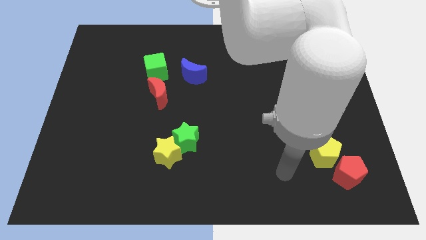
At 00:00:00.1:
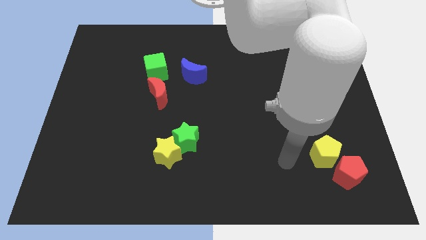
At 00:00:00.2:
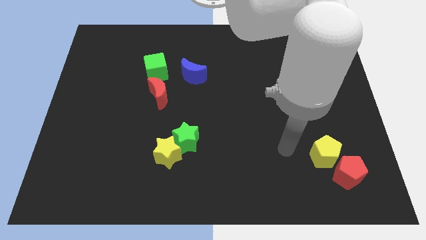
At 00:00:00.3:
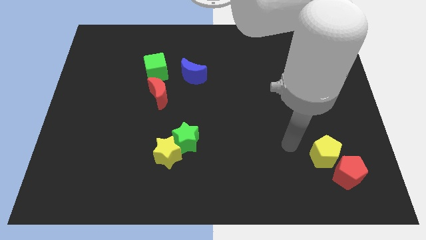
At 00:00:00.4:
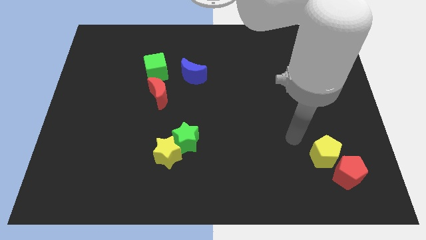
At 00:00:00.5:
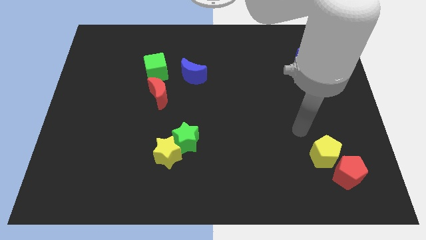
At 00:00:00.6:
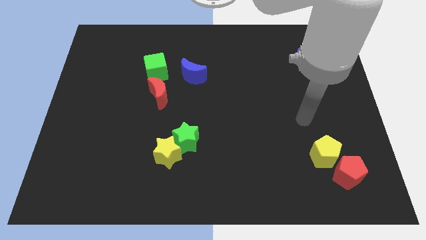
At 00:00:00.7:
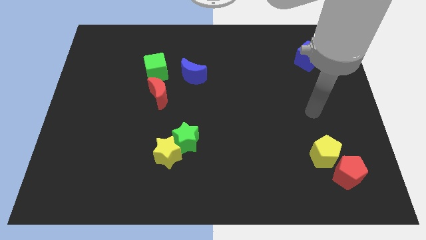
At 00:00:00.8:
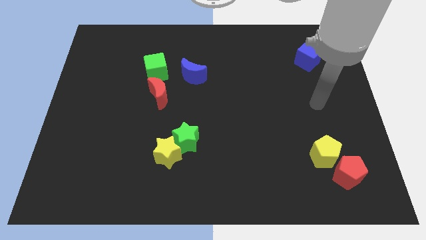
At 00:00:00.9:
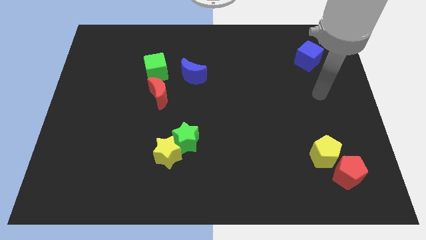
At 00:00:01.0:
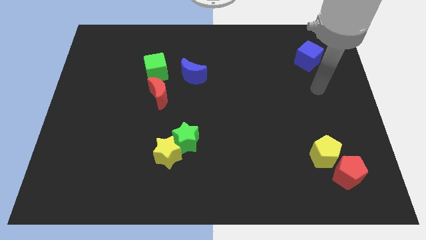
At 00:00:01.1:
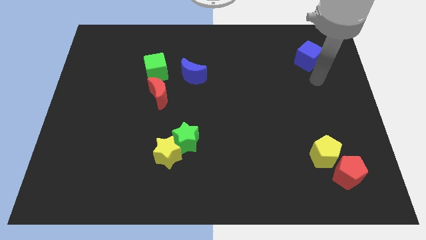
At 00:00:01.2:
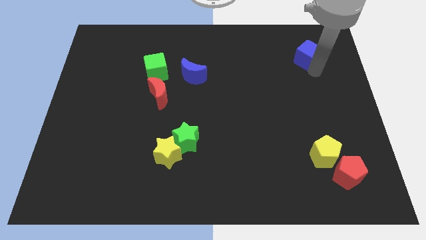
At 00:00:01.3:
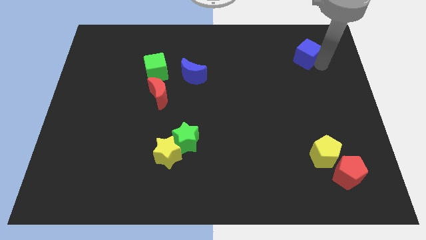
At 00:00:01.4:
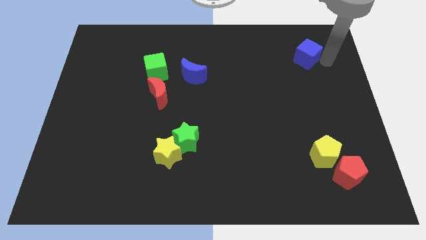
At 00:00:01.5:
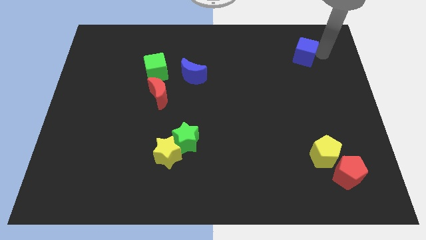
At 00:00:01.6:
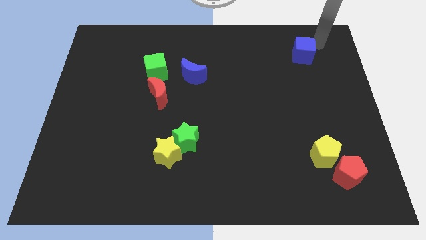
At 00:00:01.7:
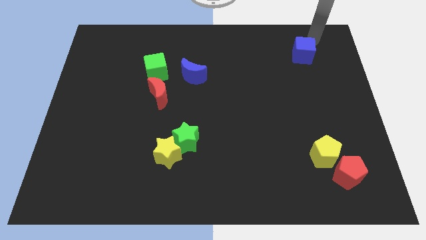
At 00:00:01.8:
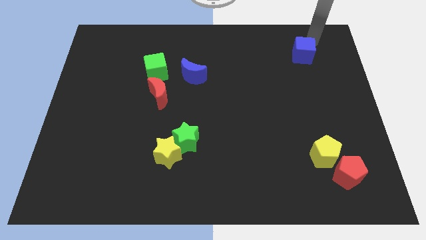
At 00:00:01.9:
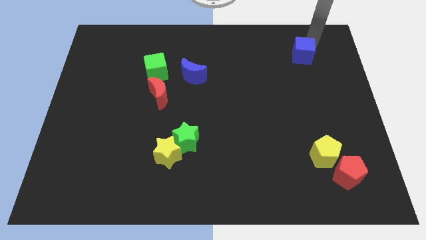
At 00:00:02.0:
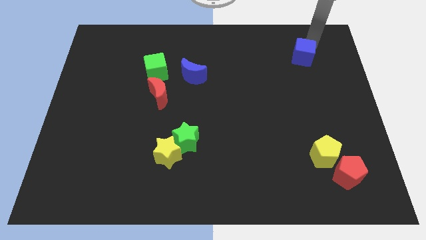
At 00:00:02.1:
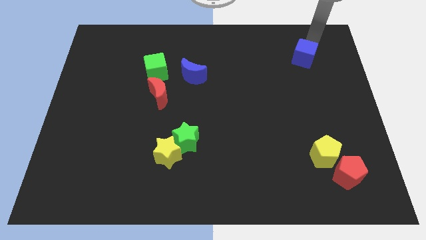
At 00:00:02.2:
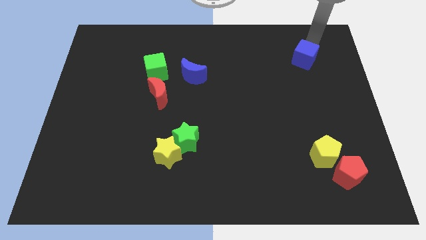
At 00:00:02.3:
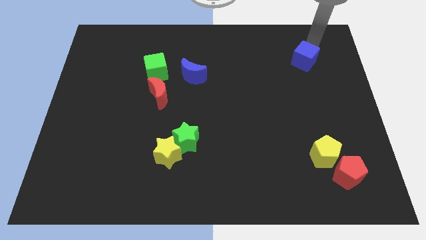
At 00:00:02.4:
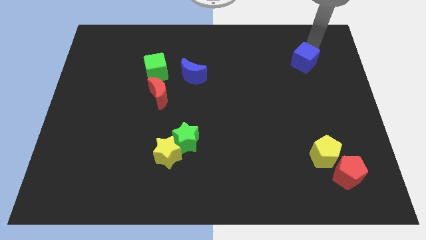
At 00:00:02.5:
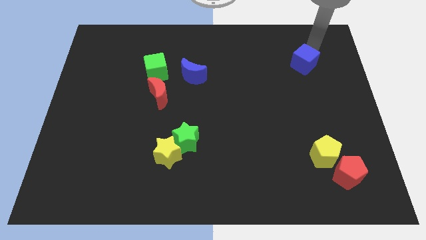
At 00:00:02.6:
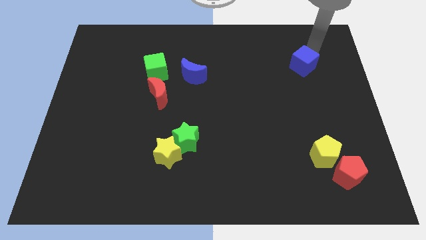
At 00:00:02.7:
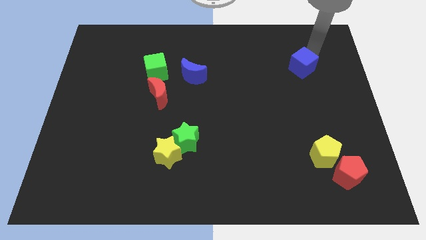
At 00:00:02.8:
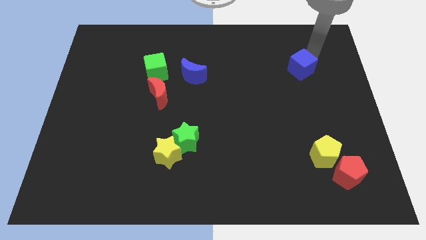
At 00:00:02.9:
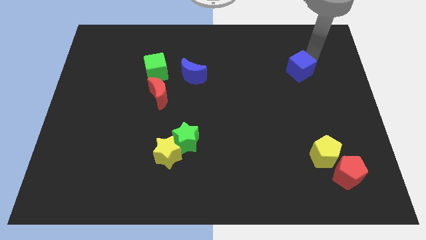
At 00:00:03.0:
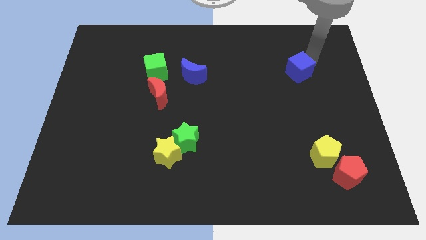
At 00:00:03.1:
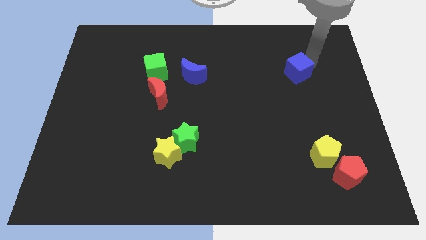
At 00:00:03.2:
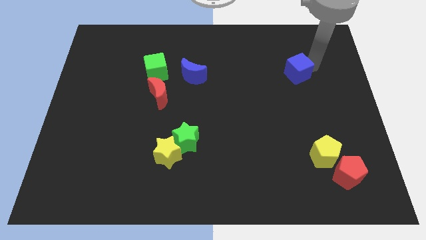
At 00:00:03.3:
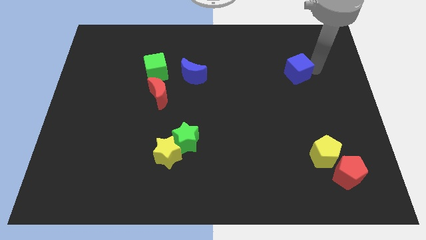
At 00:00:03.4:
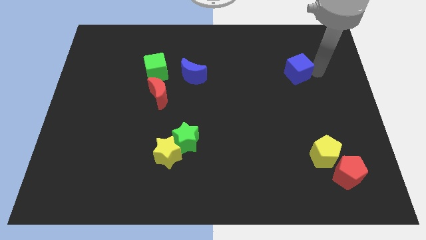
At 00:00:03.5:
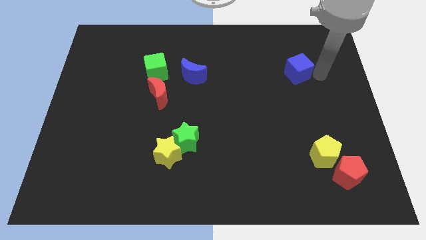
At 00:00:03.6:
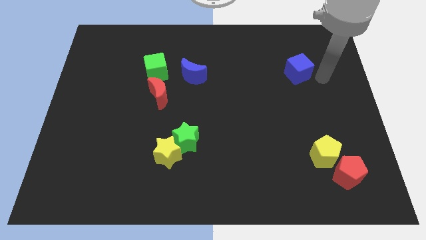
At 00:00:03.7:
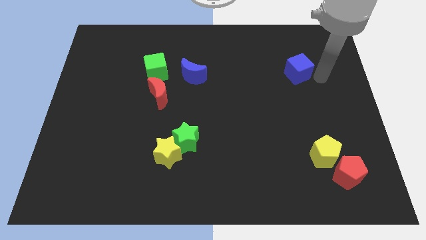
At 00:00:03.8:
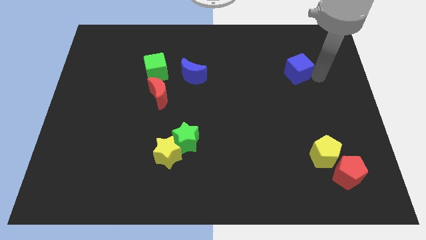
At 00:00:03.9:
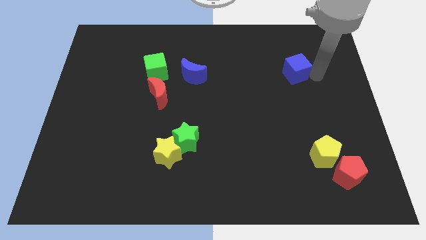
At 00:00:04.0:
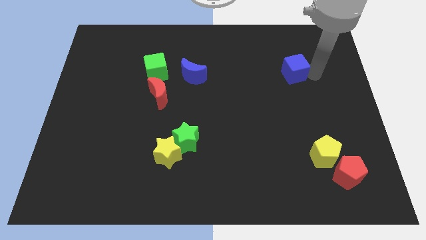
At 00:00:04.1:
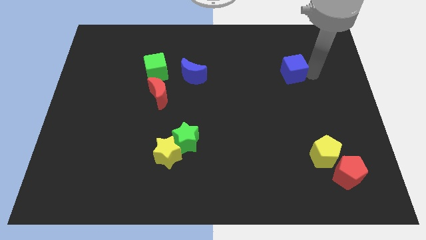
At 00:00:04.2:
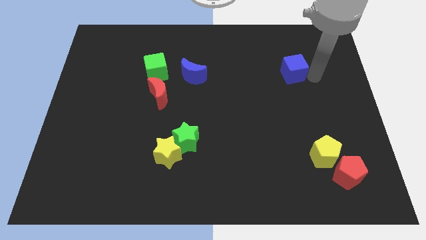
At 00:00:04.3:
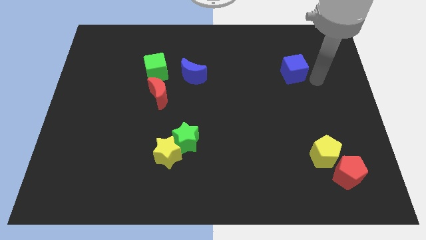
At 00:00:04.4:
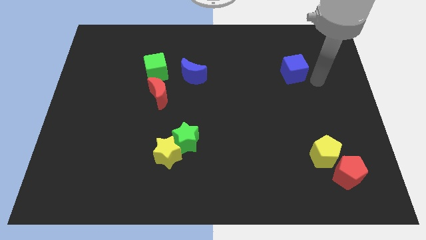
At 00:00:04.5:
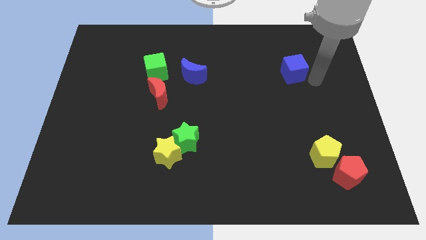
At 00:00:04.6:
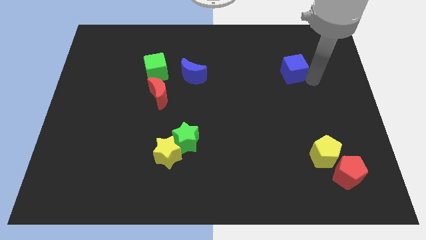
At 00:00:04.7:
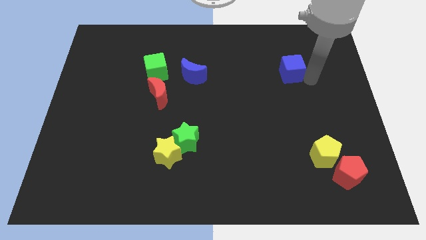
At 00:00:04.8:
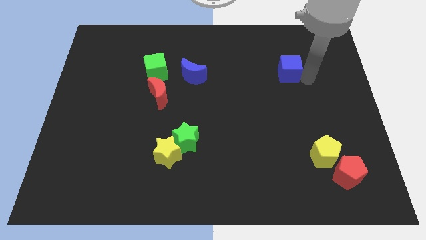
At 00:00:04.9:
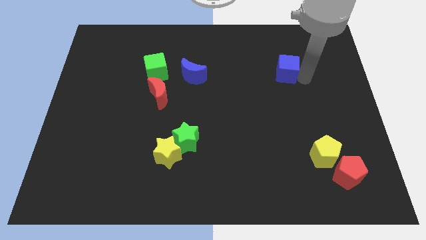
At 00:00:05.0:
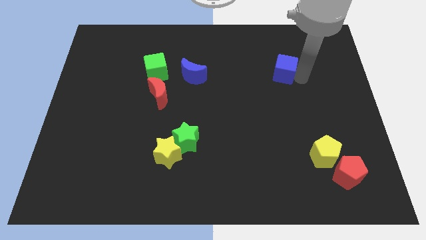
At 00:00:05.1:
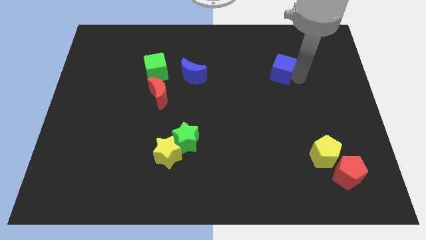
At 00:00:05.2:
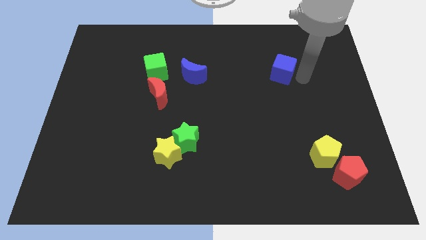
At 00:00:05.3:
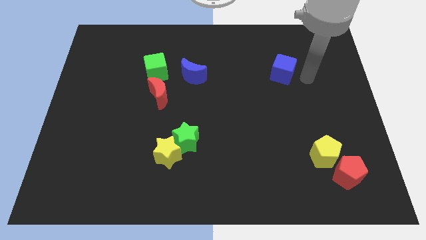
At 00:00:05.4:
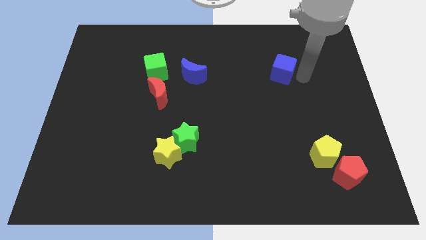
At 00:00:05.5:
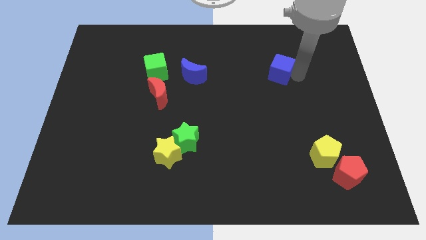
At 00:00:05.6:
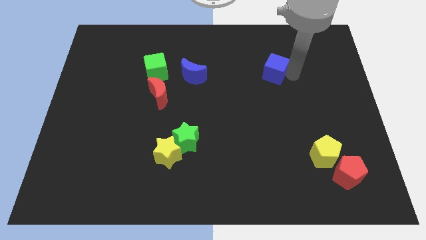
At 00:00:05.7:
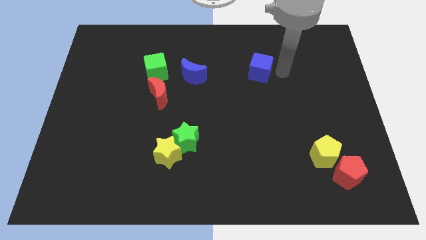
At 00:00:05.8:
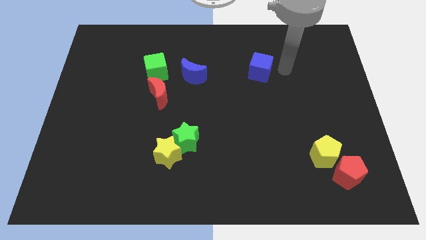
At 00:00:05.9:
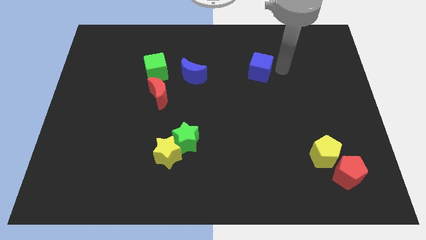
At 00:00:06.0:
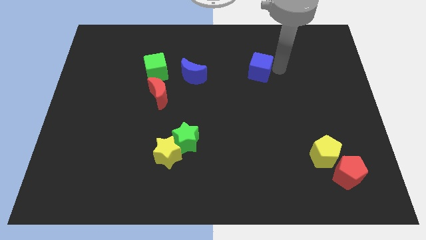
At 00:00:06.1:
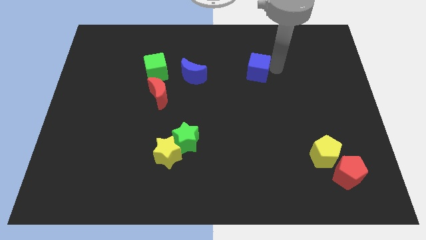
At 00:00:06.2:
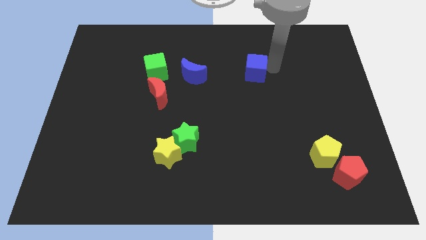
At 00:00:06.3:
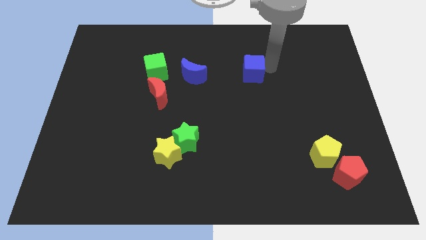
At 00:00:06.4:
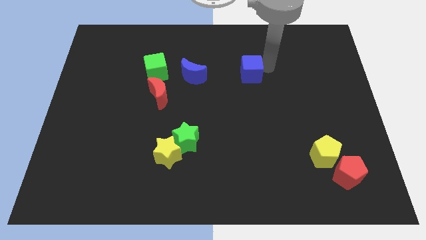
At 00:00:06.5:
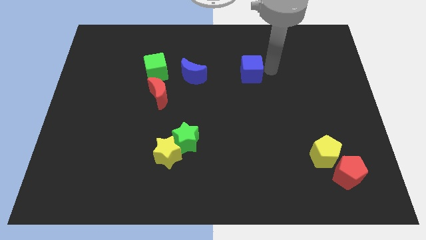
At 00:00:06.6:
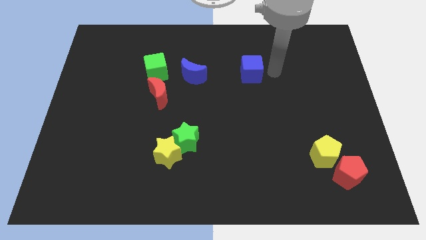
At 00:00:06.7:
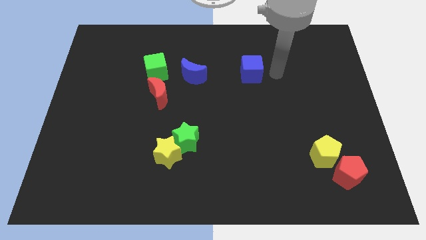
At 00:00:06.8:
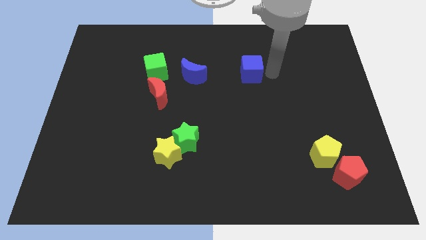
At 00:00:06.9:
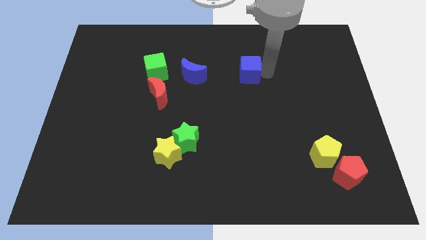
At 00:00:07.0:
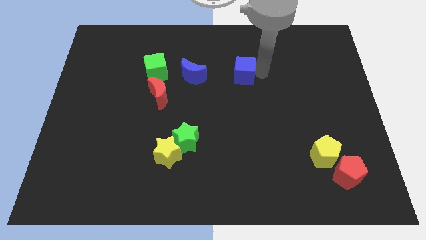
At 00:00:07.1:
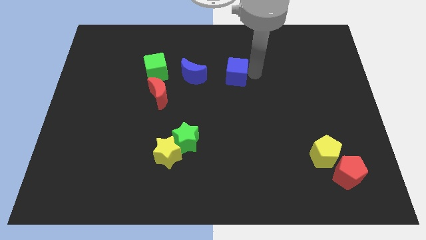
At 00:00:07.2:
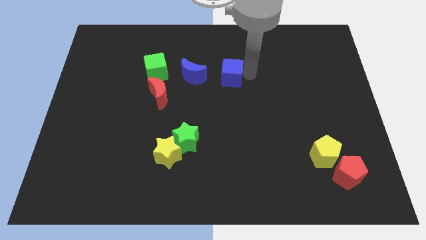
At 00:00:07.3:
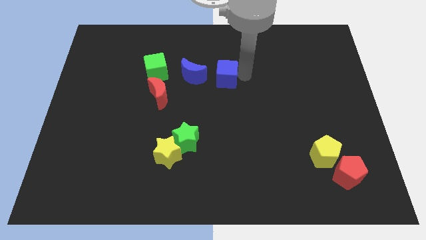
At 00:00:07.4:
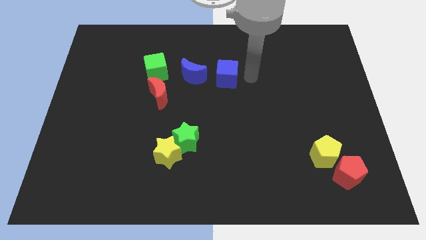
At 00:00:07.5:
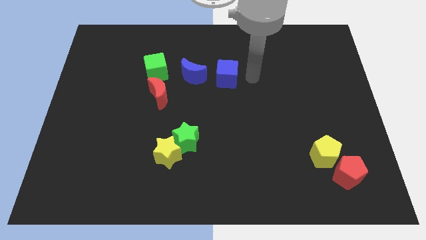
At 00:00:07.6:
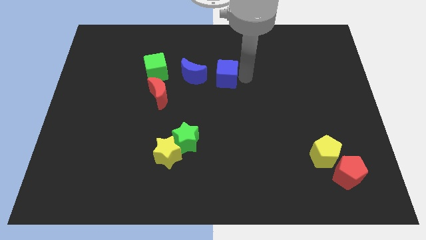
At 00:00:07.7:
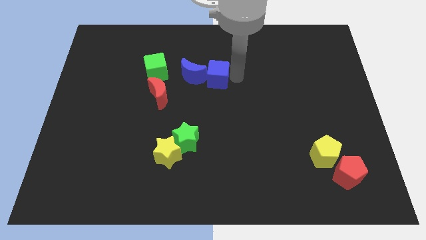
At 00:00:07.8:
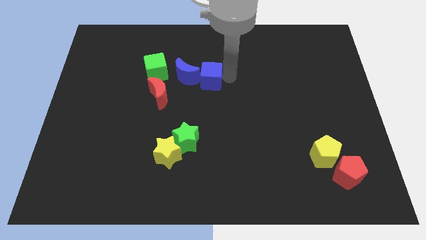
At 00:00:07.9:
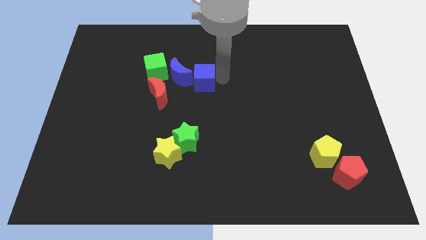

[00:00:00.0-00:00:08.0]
push the blue cube to the blue moon
